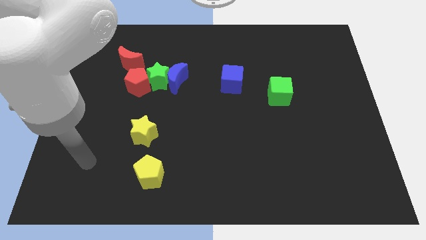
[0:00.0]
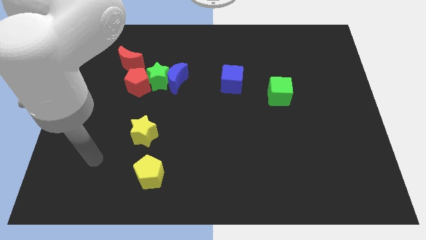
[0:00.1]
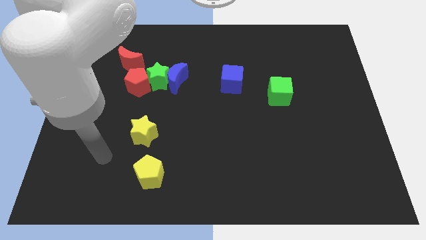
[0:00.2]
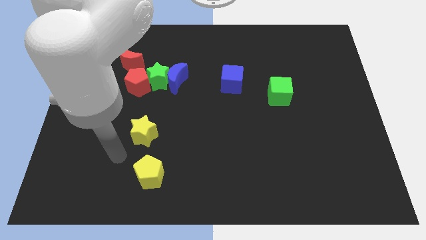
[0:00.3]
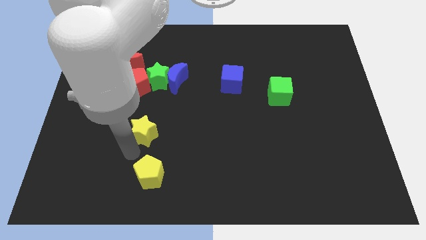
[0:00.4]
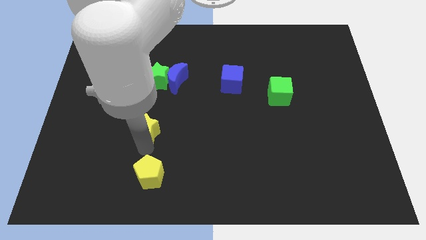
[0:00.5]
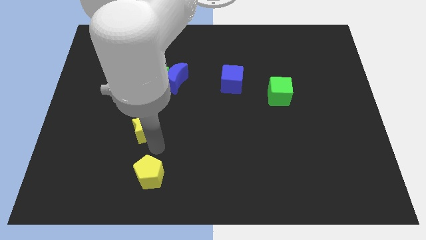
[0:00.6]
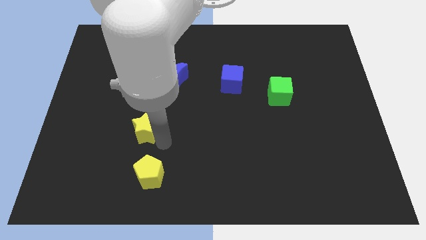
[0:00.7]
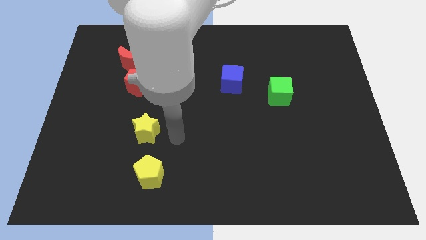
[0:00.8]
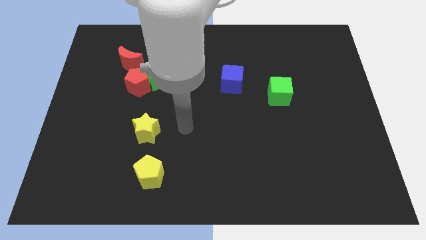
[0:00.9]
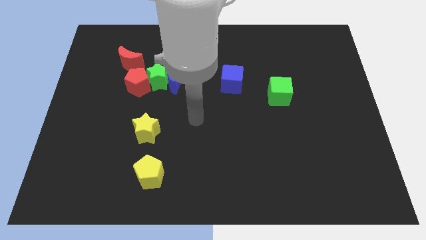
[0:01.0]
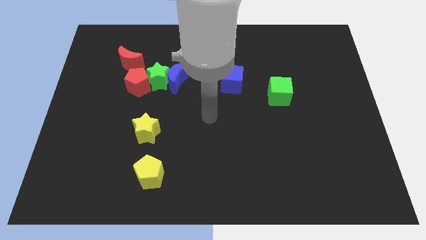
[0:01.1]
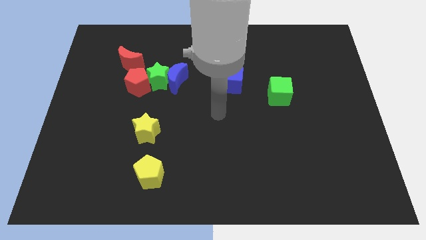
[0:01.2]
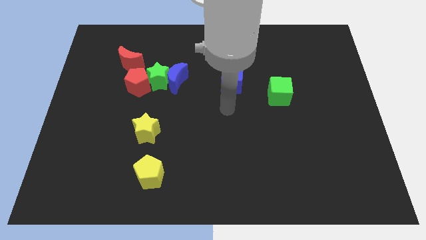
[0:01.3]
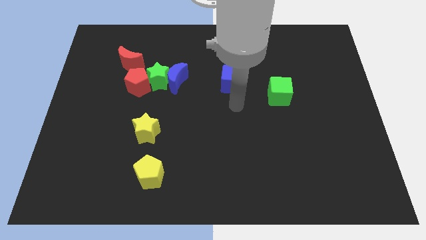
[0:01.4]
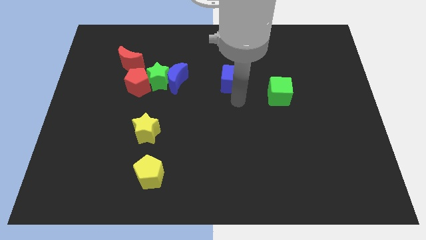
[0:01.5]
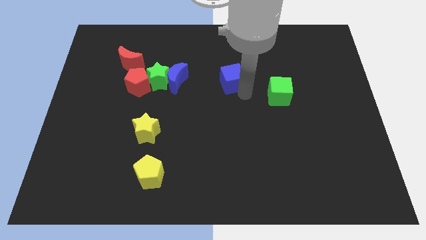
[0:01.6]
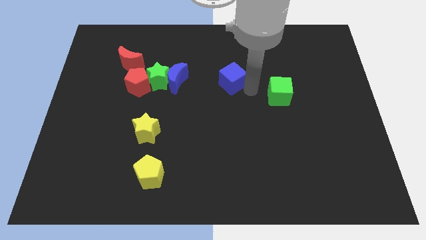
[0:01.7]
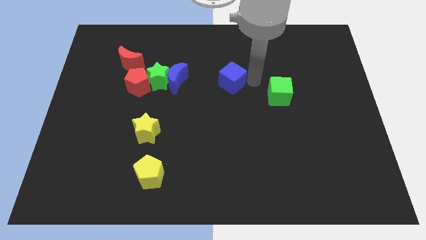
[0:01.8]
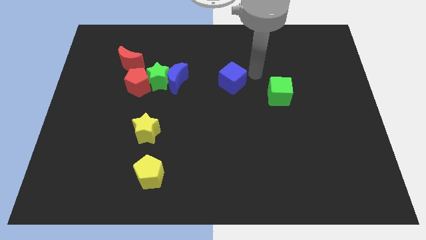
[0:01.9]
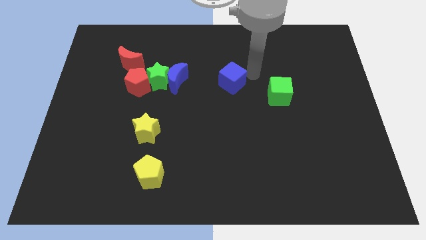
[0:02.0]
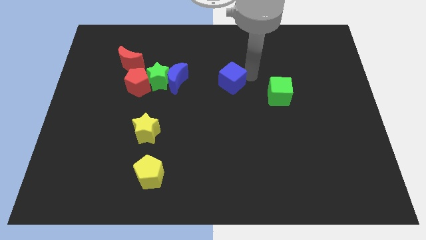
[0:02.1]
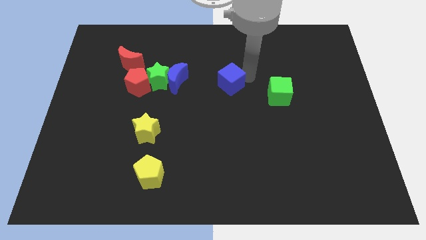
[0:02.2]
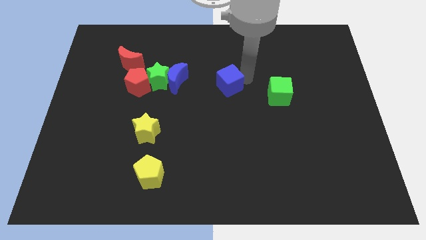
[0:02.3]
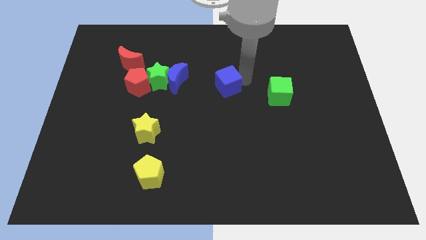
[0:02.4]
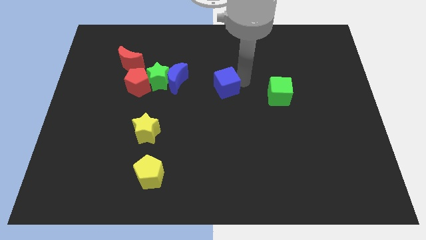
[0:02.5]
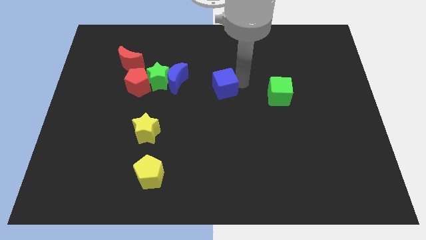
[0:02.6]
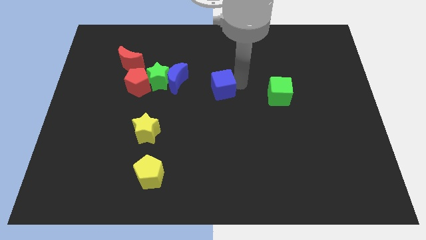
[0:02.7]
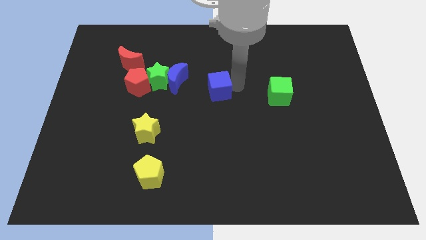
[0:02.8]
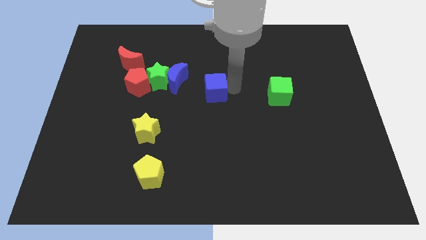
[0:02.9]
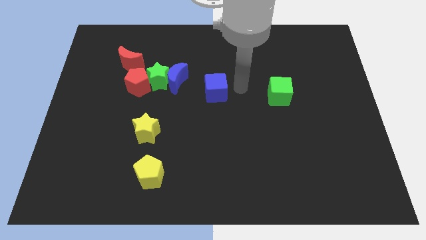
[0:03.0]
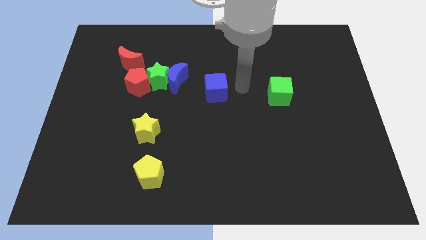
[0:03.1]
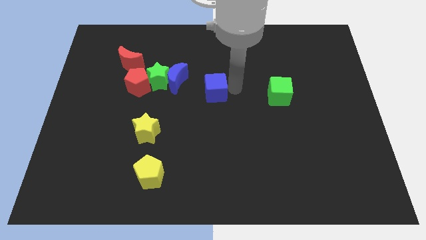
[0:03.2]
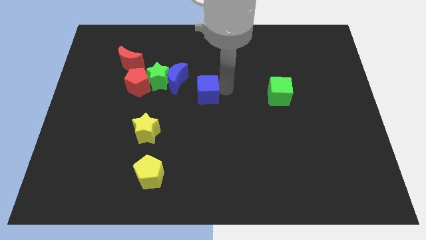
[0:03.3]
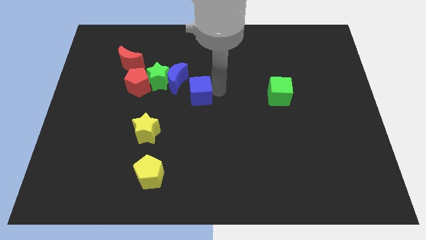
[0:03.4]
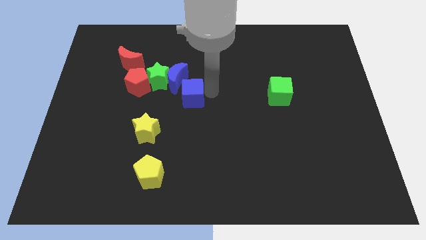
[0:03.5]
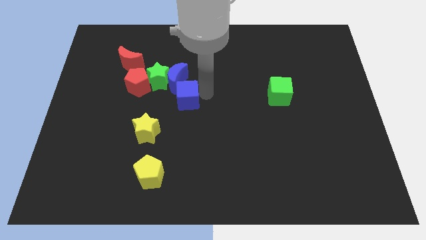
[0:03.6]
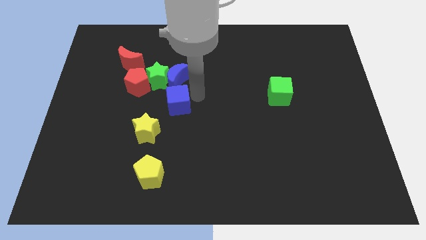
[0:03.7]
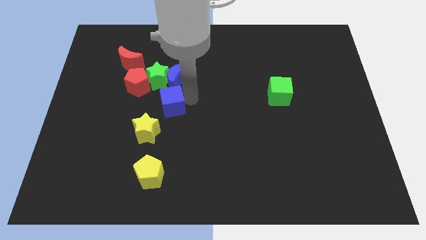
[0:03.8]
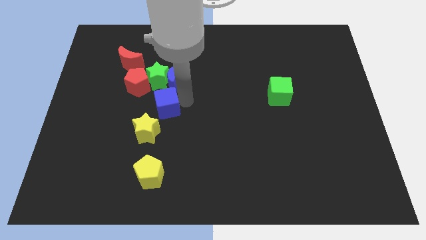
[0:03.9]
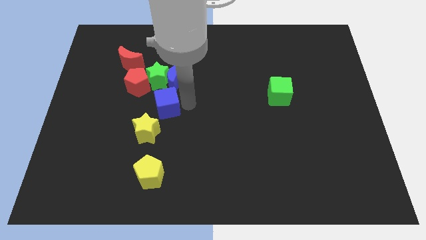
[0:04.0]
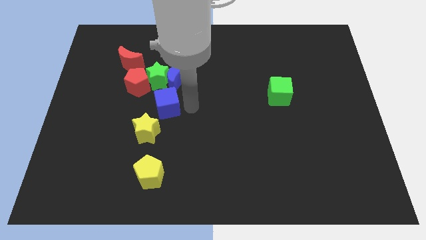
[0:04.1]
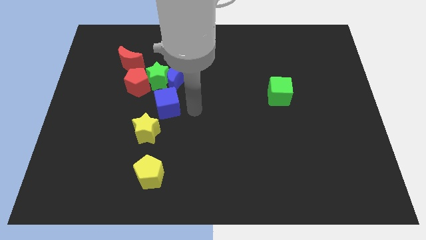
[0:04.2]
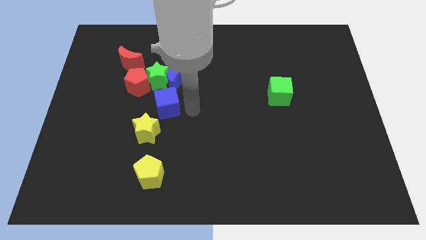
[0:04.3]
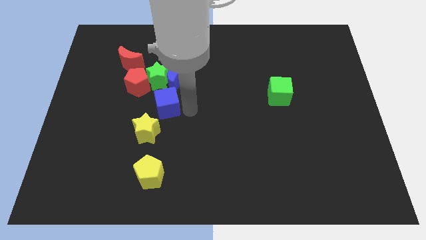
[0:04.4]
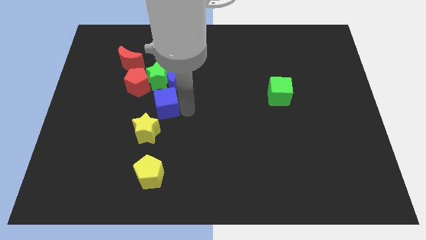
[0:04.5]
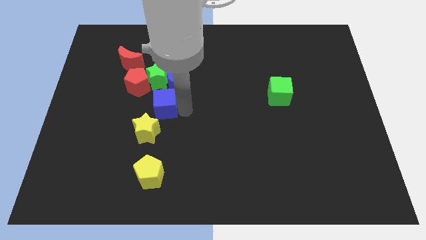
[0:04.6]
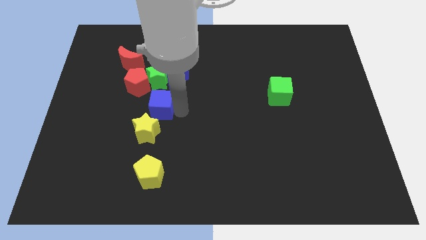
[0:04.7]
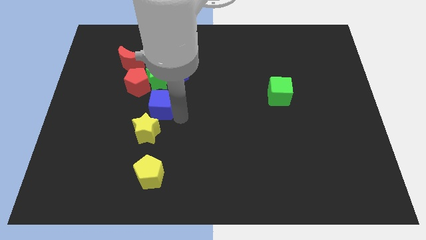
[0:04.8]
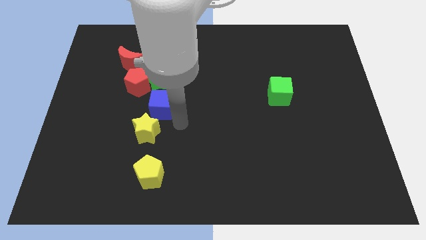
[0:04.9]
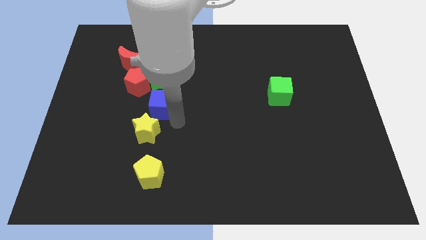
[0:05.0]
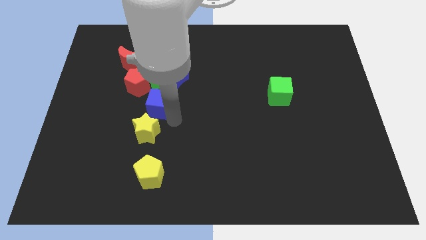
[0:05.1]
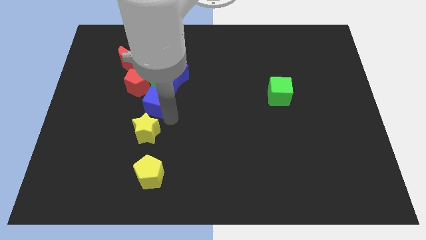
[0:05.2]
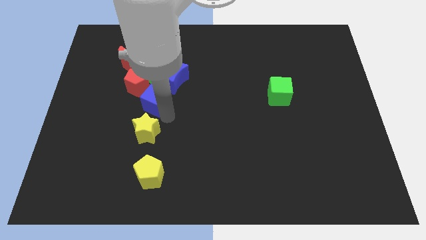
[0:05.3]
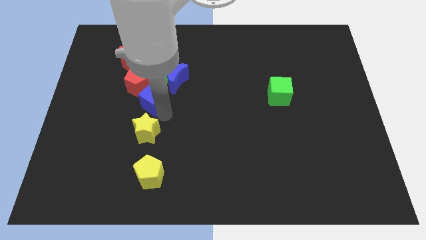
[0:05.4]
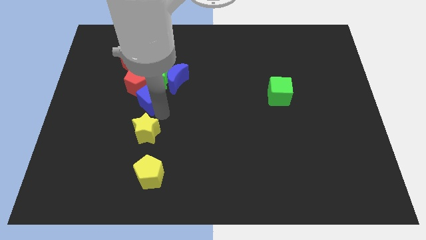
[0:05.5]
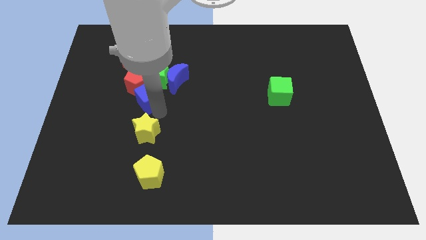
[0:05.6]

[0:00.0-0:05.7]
slide the blue cube close to the red pentagon

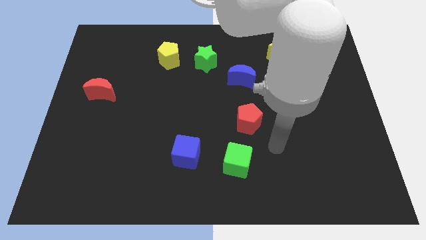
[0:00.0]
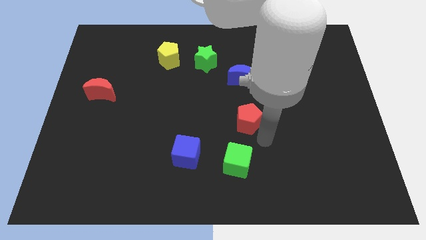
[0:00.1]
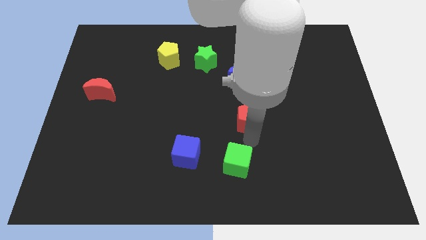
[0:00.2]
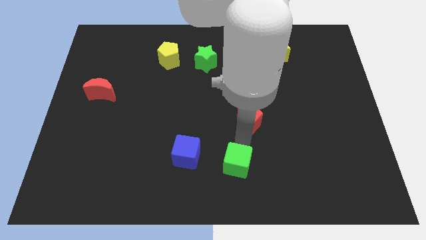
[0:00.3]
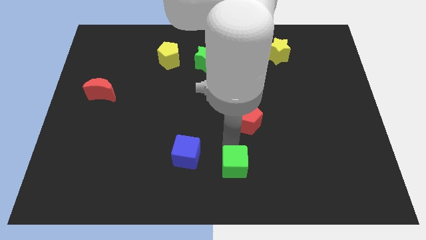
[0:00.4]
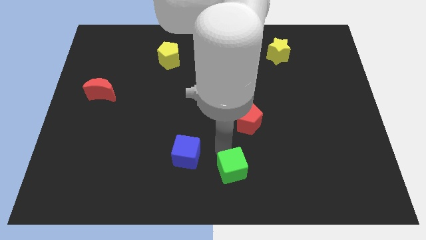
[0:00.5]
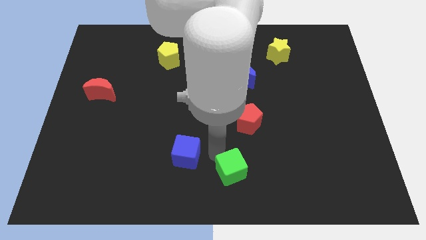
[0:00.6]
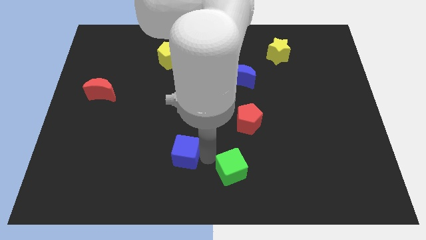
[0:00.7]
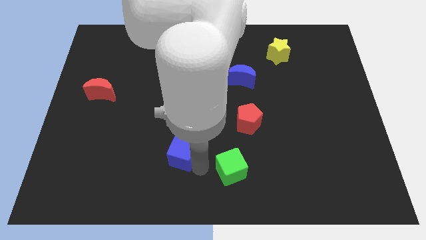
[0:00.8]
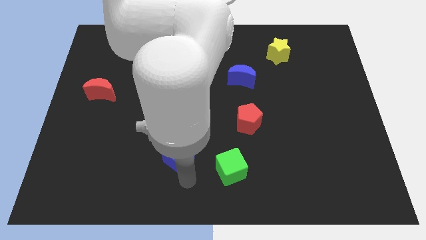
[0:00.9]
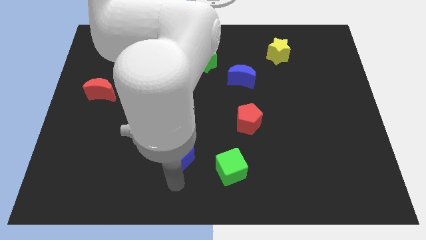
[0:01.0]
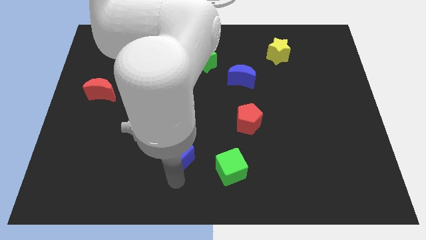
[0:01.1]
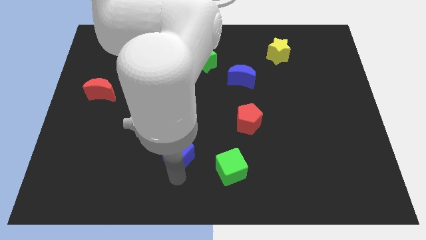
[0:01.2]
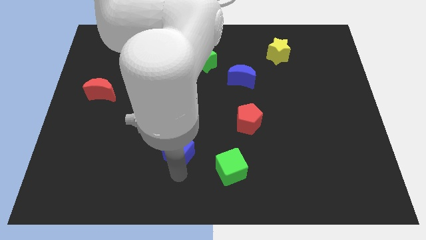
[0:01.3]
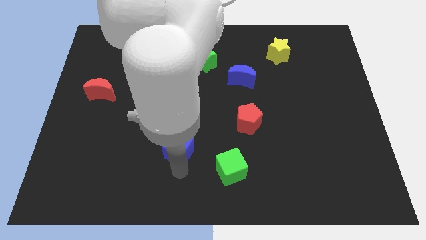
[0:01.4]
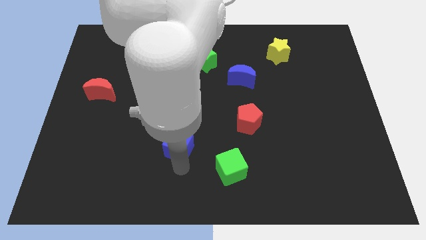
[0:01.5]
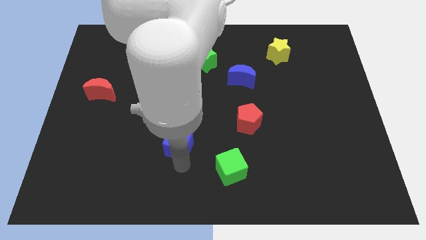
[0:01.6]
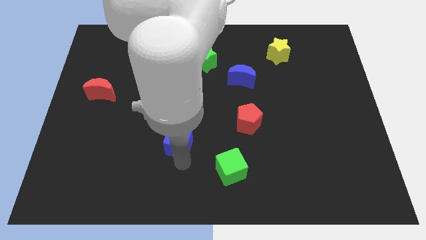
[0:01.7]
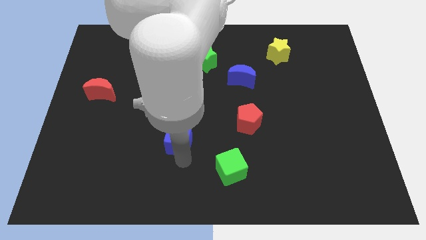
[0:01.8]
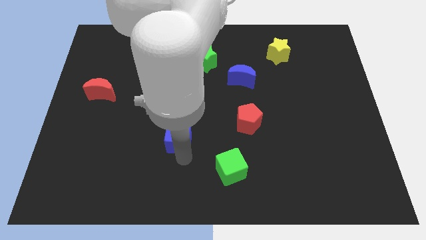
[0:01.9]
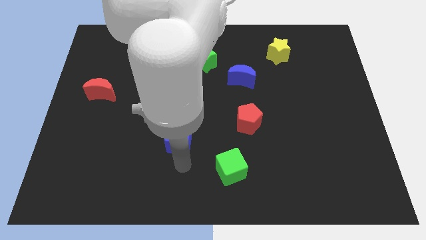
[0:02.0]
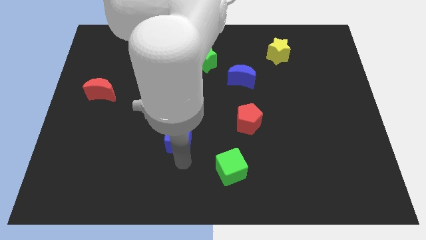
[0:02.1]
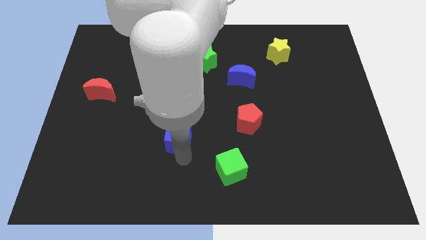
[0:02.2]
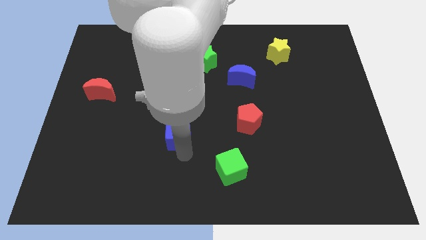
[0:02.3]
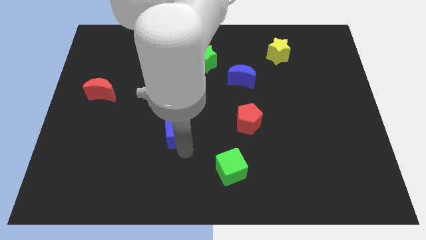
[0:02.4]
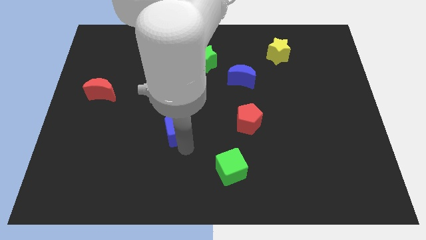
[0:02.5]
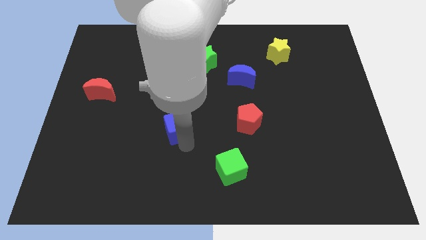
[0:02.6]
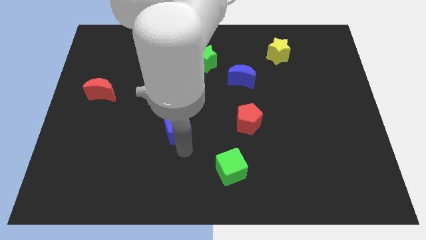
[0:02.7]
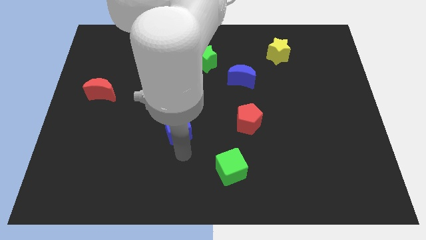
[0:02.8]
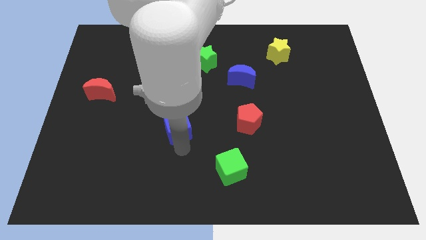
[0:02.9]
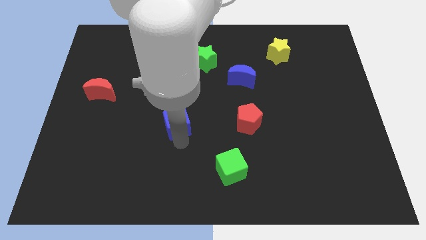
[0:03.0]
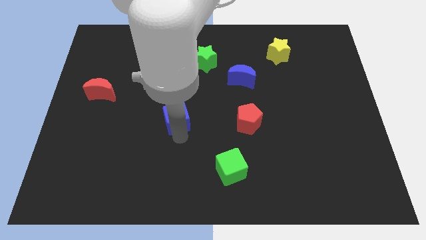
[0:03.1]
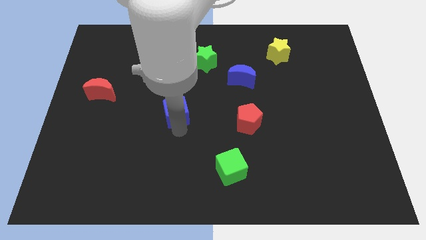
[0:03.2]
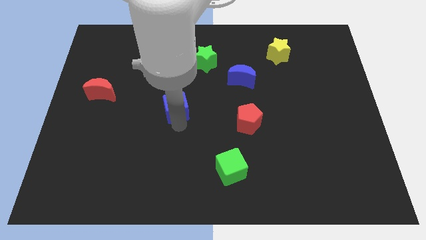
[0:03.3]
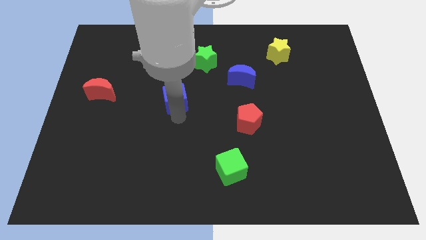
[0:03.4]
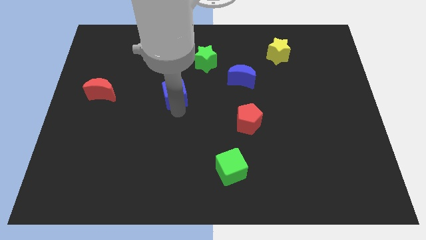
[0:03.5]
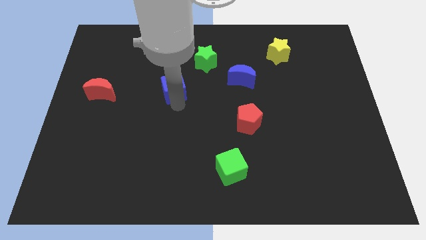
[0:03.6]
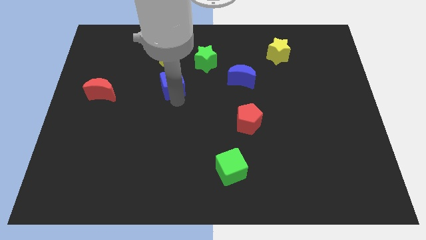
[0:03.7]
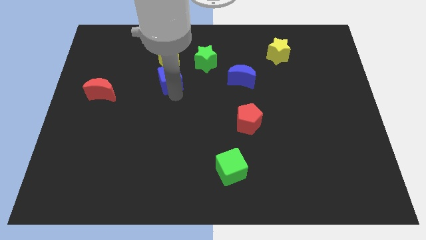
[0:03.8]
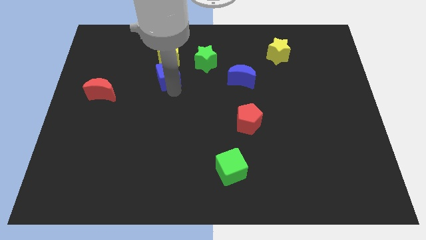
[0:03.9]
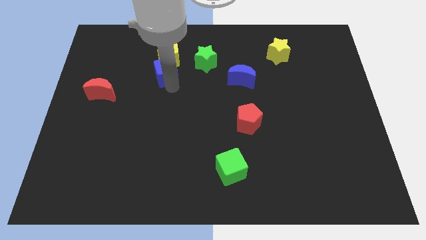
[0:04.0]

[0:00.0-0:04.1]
put the blue cube close to the yellow pentagon
